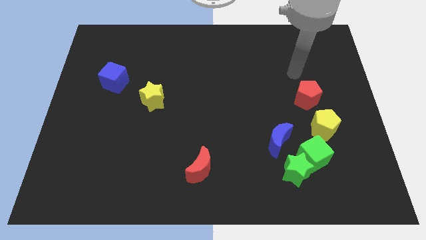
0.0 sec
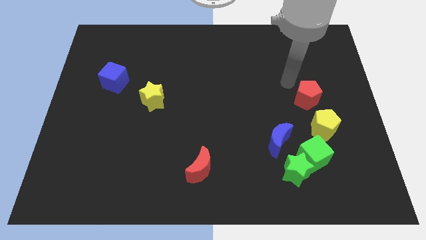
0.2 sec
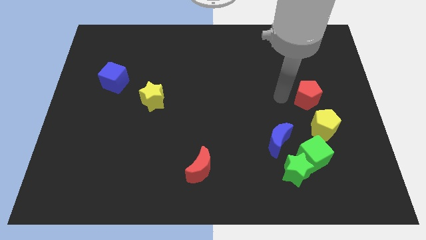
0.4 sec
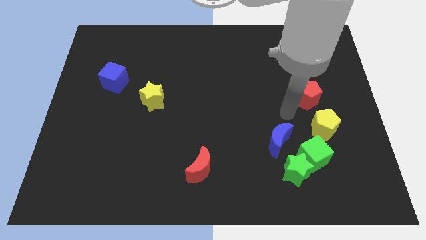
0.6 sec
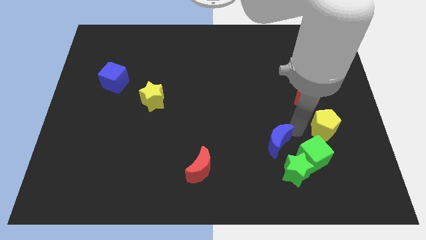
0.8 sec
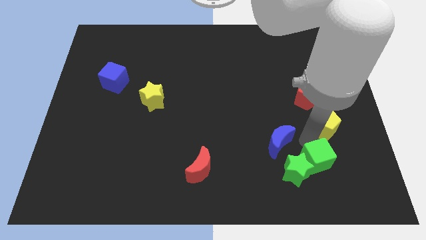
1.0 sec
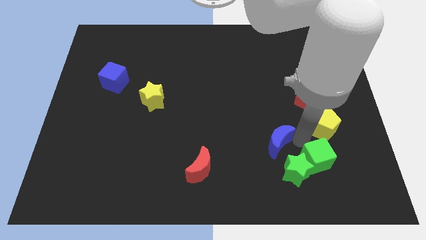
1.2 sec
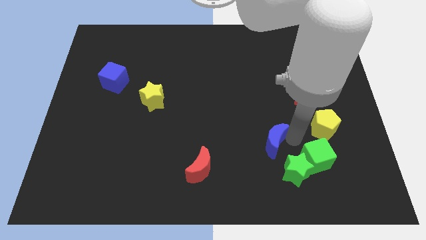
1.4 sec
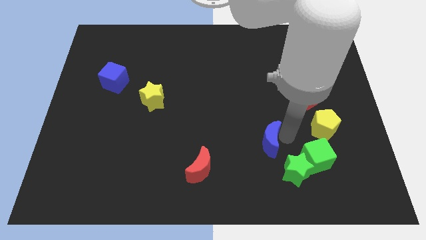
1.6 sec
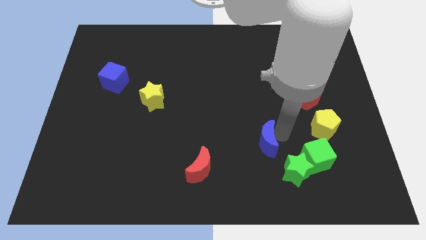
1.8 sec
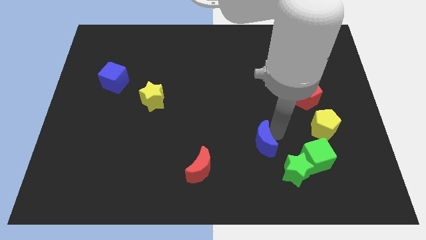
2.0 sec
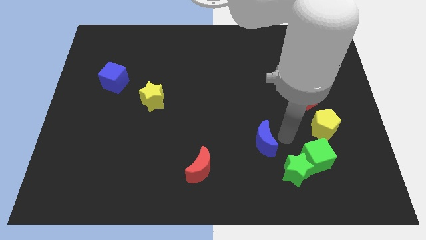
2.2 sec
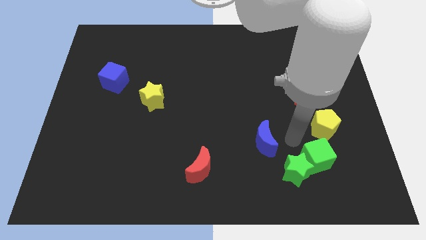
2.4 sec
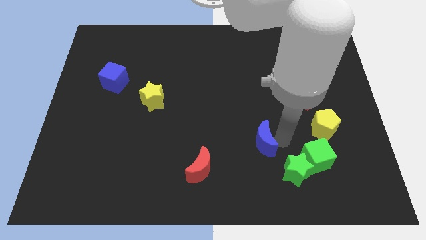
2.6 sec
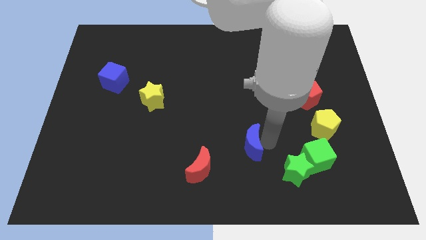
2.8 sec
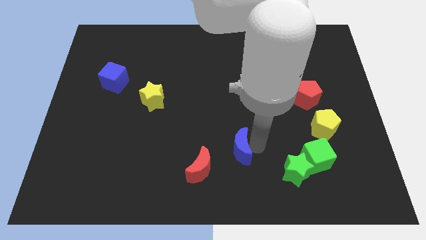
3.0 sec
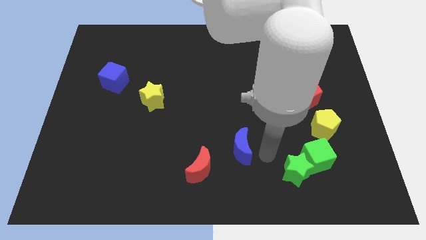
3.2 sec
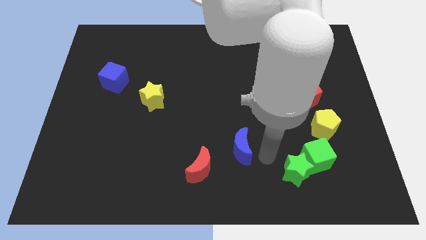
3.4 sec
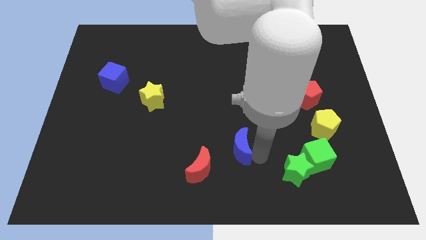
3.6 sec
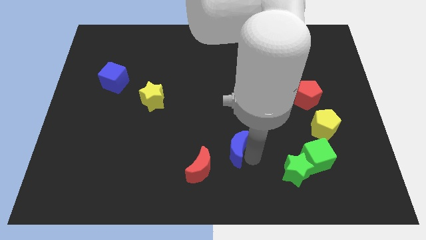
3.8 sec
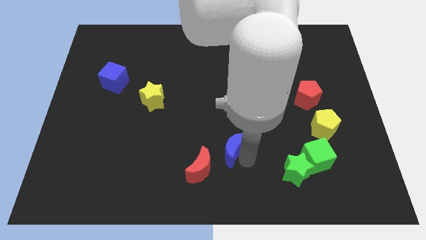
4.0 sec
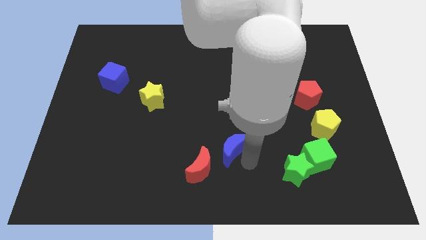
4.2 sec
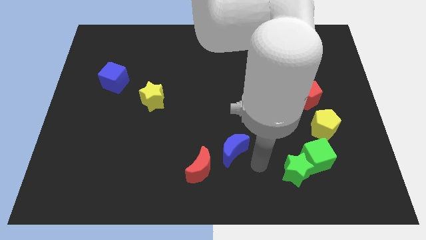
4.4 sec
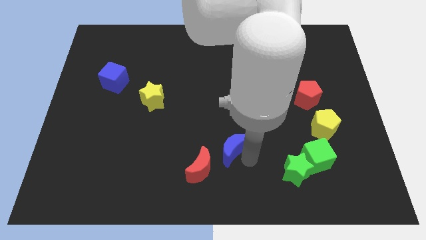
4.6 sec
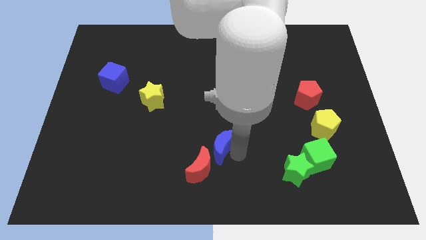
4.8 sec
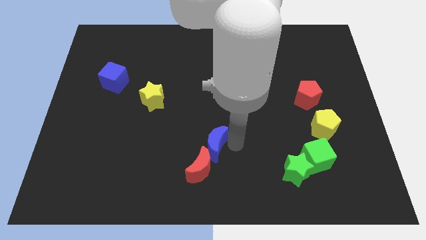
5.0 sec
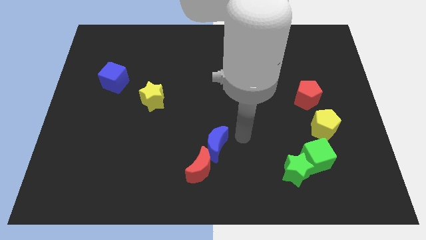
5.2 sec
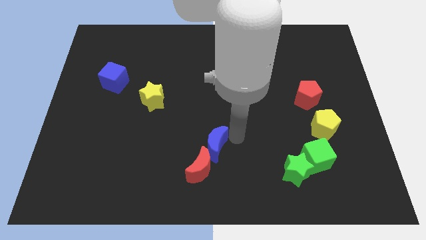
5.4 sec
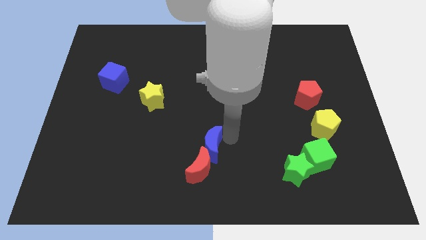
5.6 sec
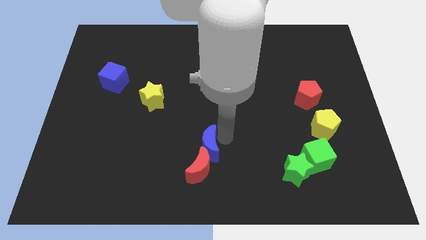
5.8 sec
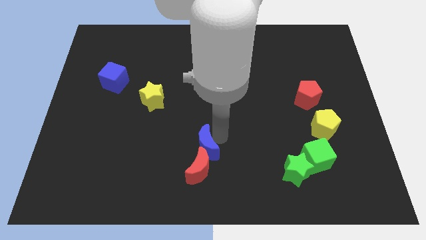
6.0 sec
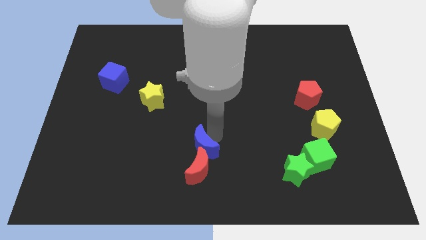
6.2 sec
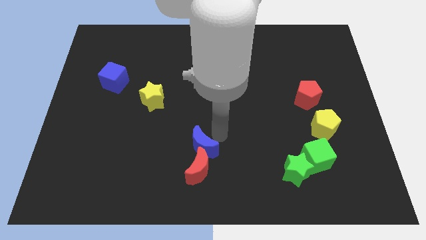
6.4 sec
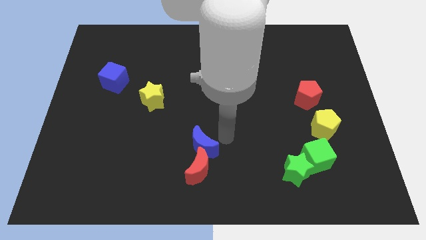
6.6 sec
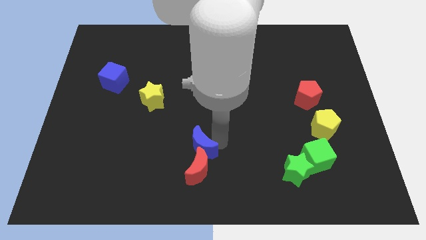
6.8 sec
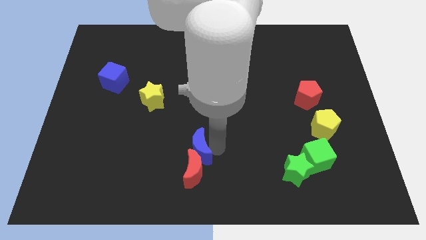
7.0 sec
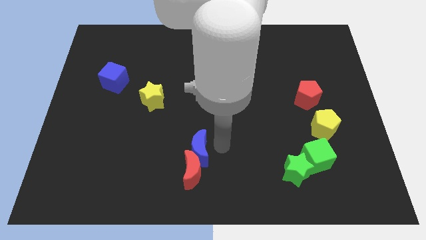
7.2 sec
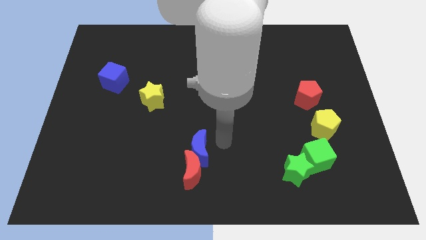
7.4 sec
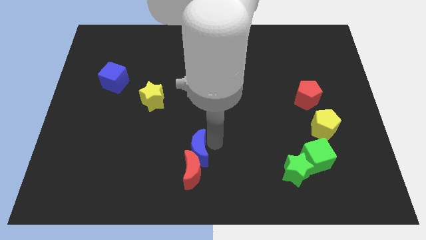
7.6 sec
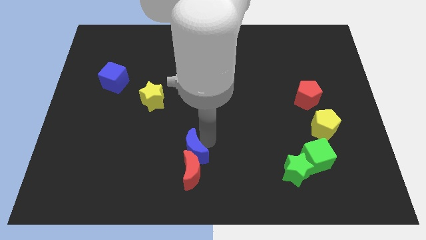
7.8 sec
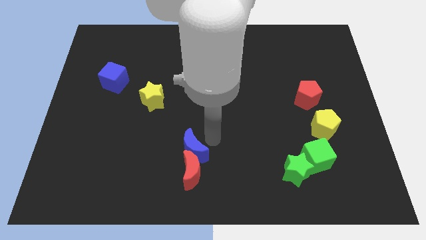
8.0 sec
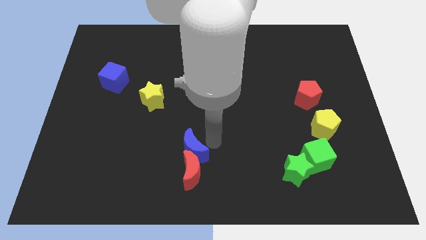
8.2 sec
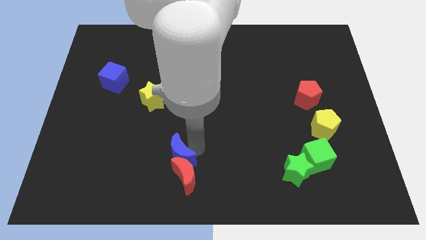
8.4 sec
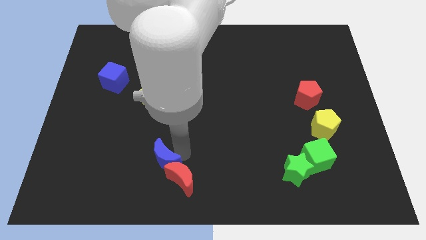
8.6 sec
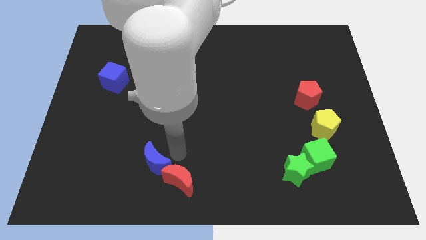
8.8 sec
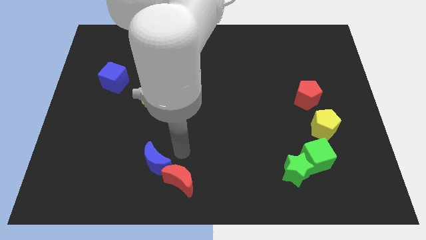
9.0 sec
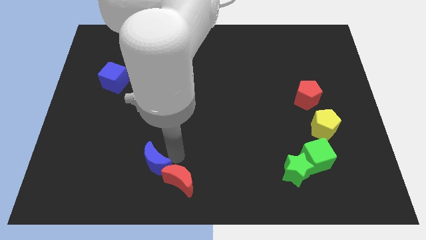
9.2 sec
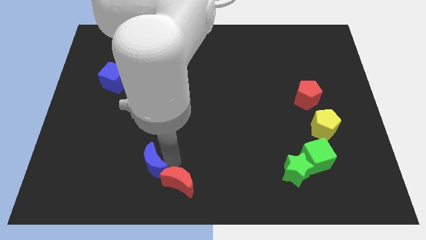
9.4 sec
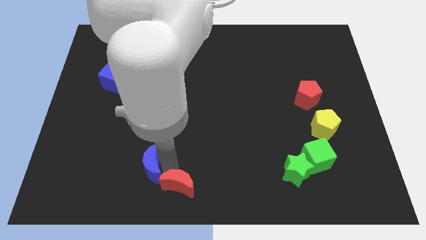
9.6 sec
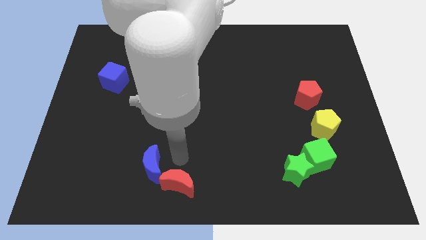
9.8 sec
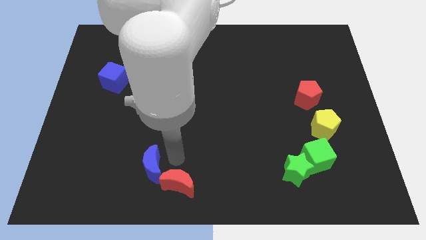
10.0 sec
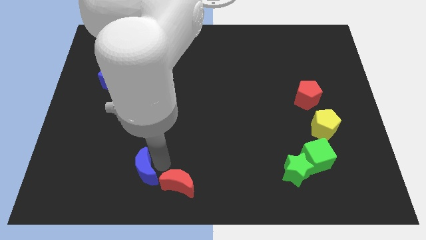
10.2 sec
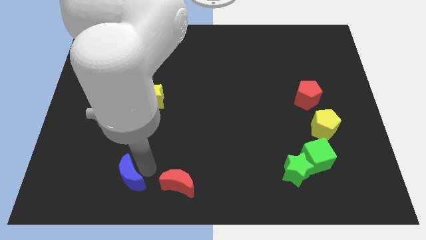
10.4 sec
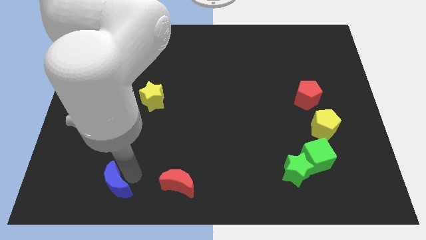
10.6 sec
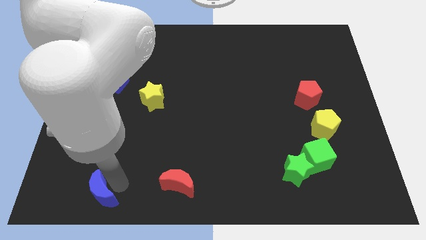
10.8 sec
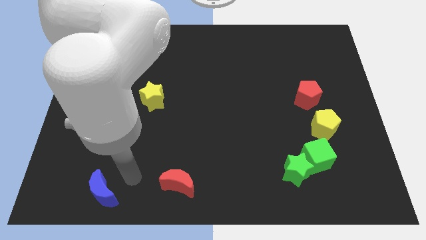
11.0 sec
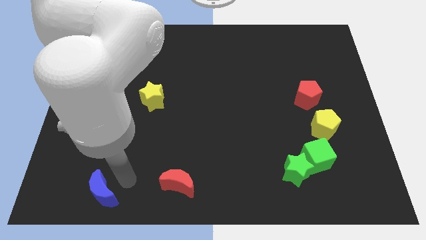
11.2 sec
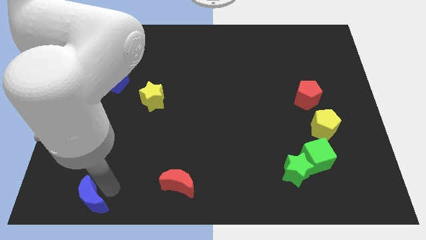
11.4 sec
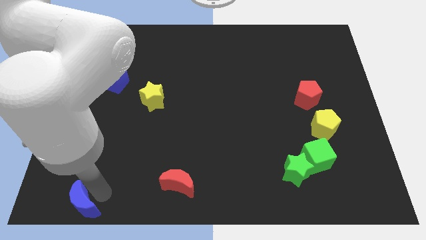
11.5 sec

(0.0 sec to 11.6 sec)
move the blue moon to the lower left corner
